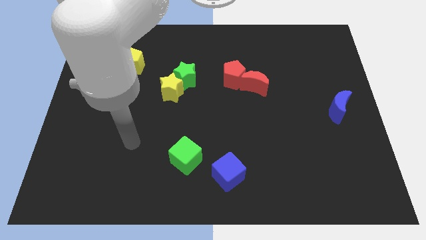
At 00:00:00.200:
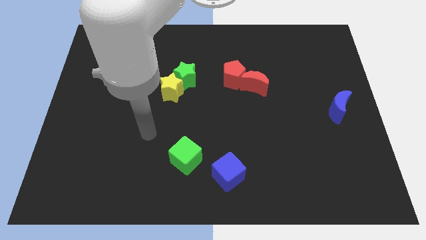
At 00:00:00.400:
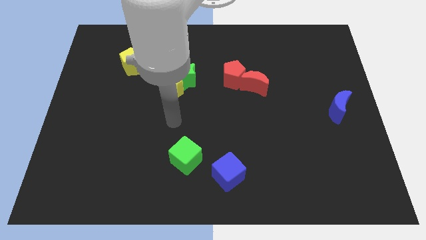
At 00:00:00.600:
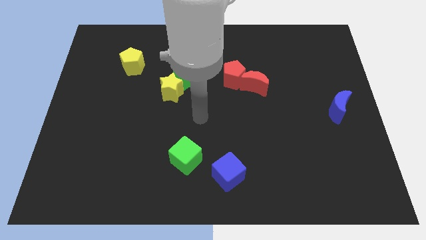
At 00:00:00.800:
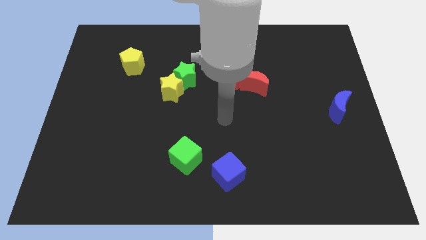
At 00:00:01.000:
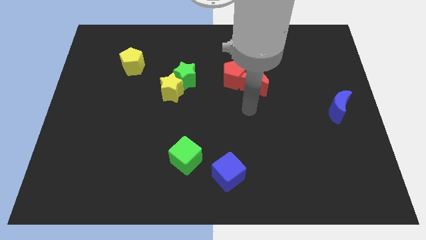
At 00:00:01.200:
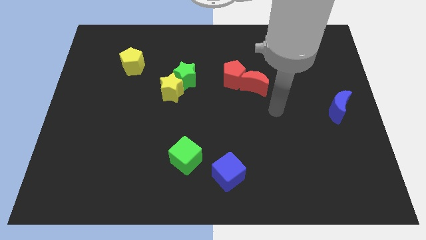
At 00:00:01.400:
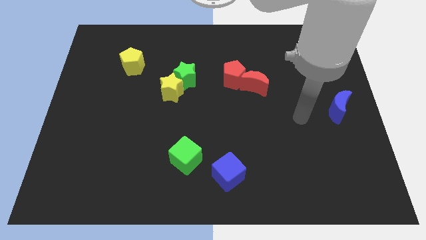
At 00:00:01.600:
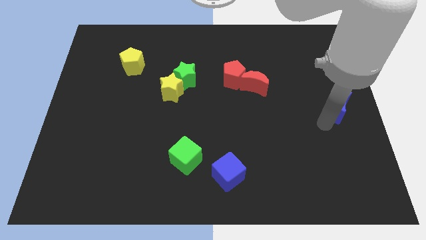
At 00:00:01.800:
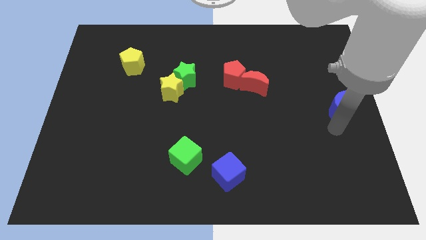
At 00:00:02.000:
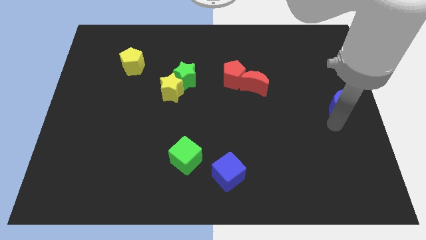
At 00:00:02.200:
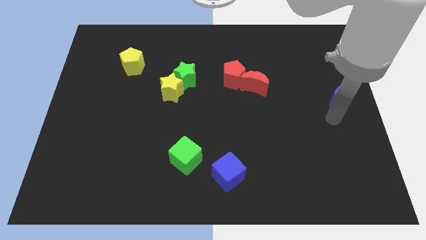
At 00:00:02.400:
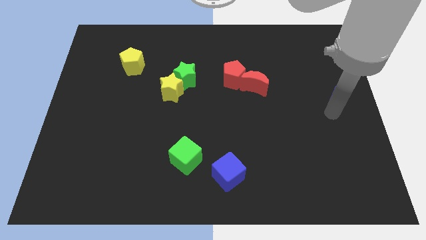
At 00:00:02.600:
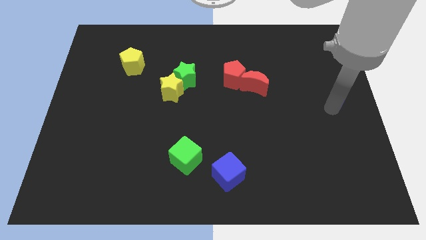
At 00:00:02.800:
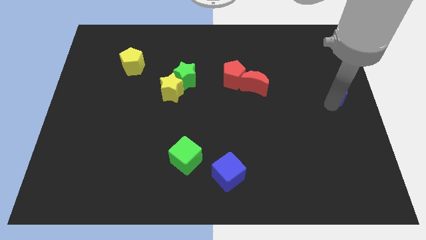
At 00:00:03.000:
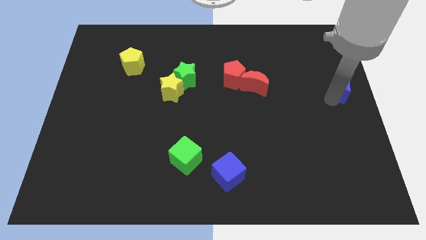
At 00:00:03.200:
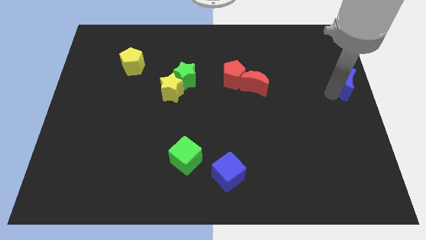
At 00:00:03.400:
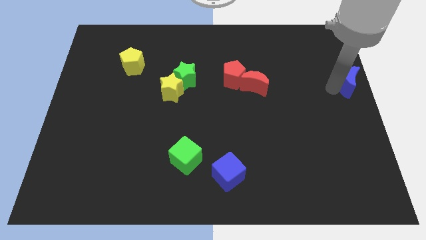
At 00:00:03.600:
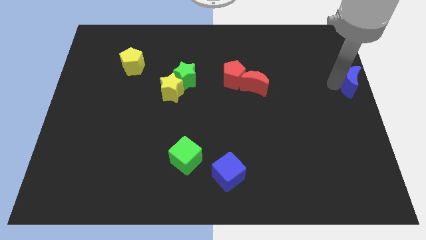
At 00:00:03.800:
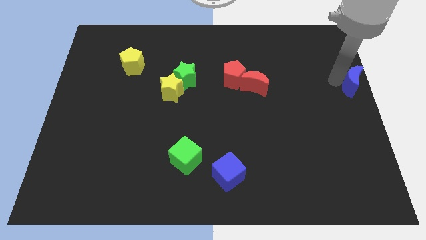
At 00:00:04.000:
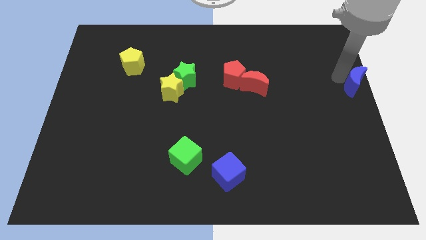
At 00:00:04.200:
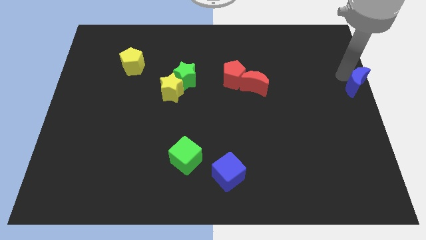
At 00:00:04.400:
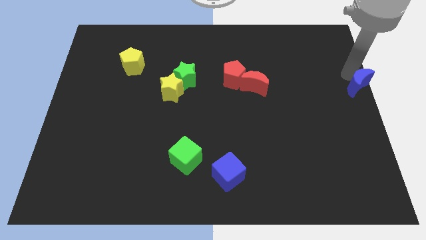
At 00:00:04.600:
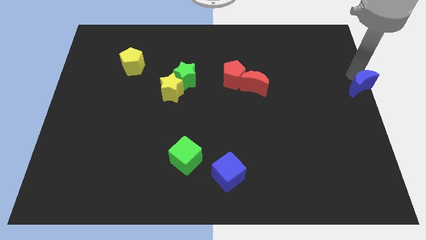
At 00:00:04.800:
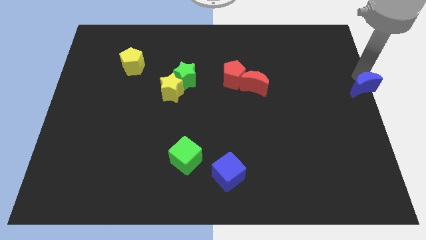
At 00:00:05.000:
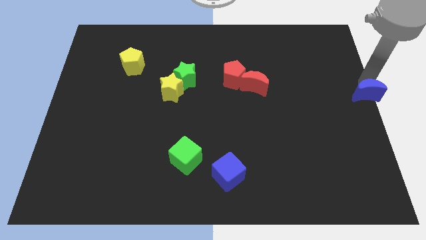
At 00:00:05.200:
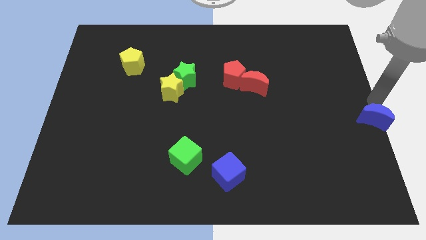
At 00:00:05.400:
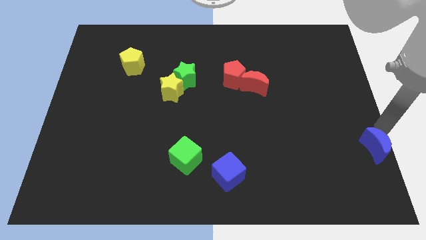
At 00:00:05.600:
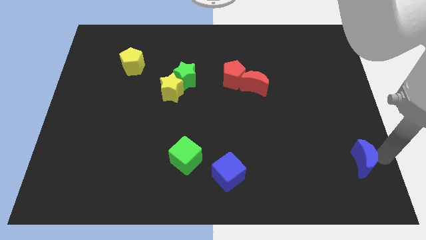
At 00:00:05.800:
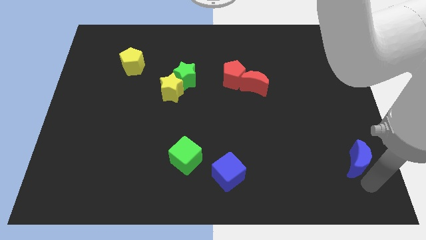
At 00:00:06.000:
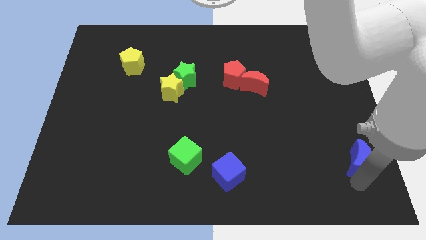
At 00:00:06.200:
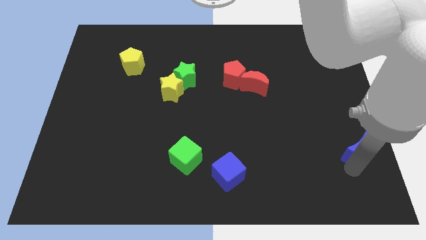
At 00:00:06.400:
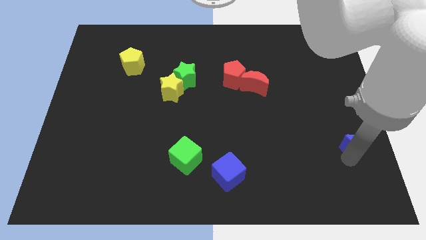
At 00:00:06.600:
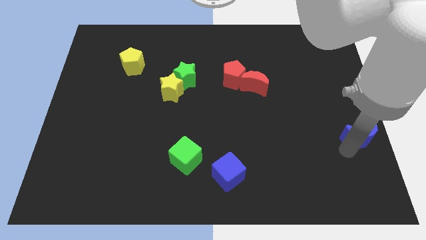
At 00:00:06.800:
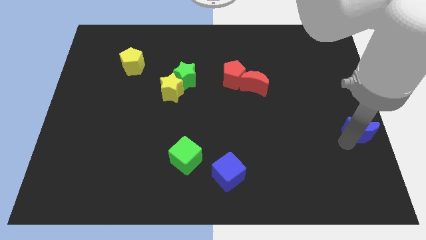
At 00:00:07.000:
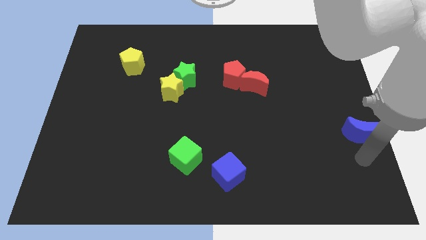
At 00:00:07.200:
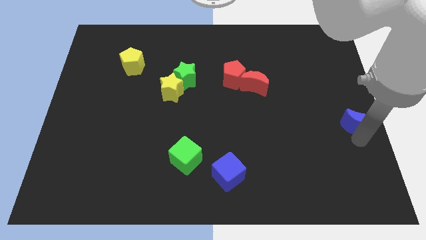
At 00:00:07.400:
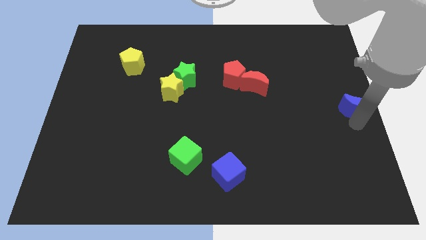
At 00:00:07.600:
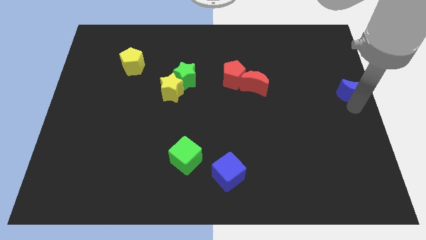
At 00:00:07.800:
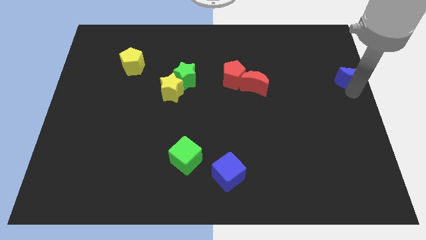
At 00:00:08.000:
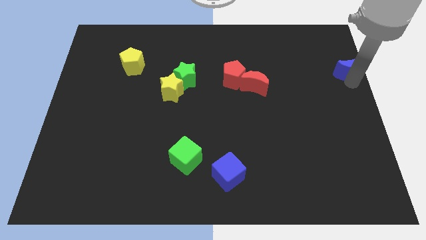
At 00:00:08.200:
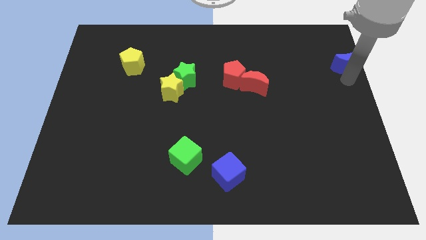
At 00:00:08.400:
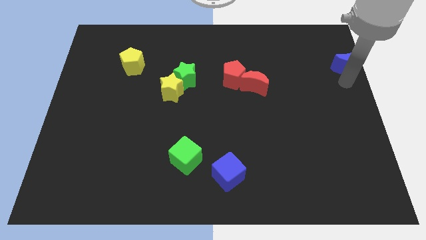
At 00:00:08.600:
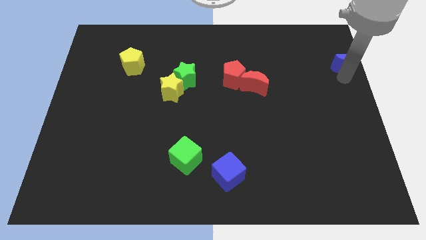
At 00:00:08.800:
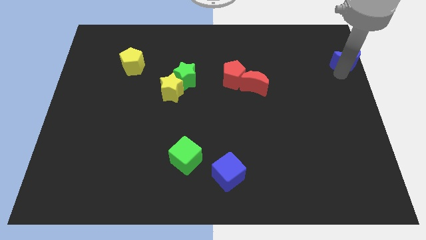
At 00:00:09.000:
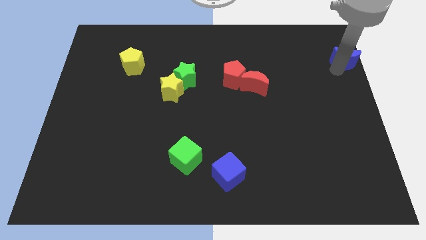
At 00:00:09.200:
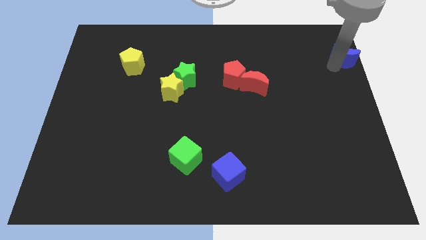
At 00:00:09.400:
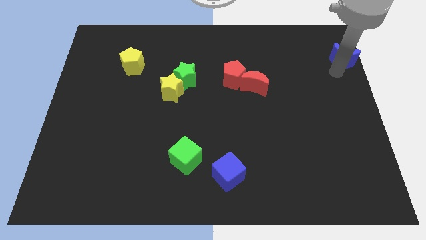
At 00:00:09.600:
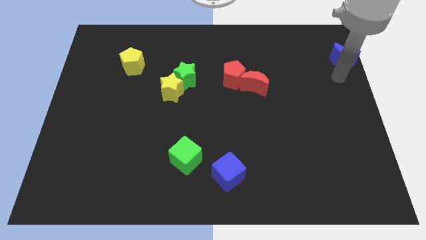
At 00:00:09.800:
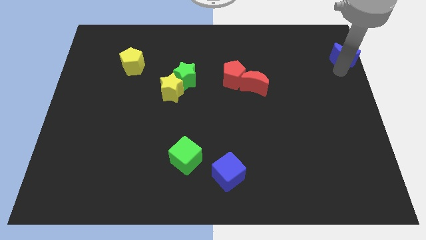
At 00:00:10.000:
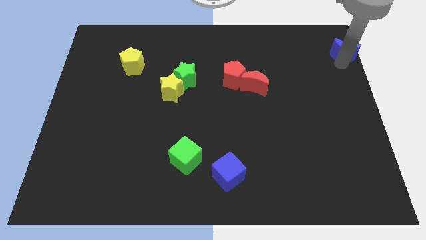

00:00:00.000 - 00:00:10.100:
push the blue moon to the top right of the board

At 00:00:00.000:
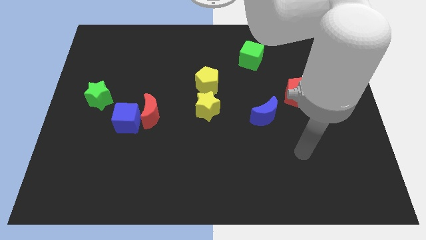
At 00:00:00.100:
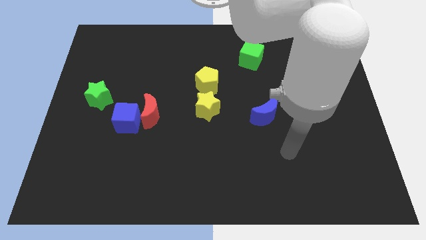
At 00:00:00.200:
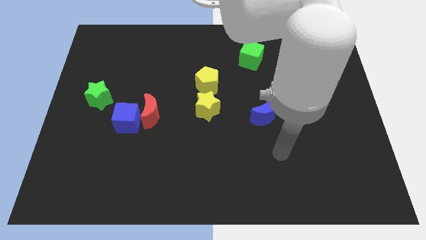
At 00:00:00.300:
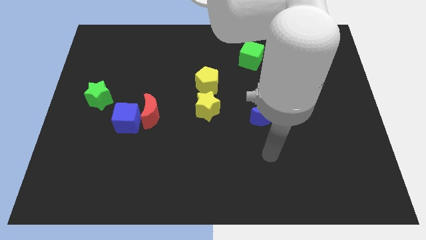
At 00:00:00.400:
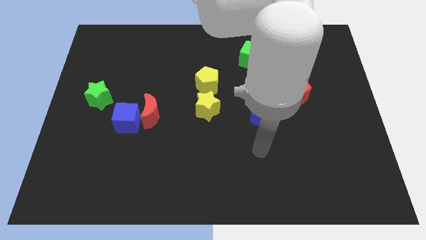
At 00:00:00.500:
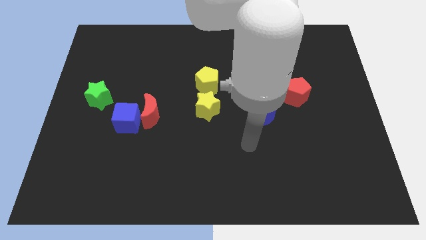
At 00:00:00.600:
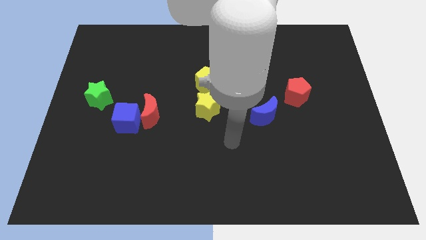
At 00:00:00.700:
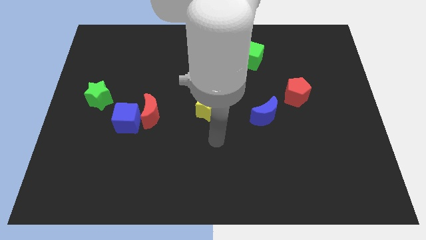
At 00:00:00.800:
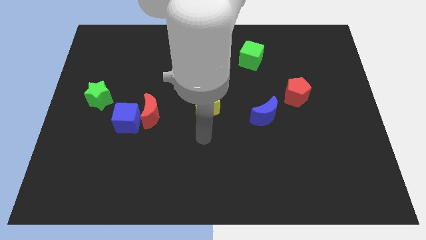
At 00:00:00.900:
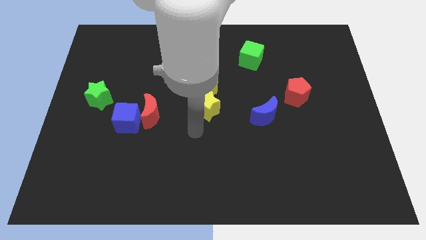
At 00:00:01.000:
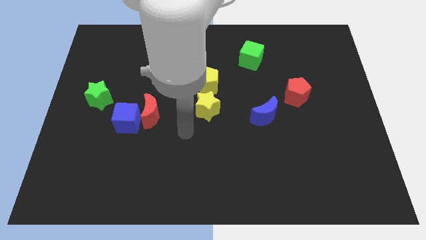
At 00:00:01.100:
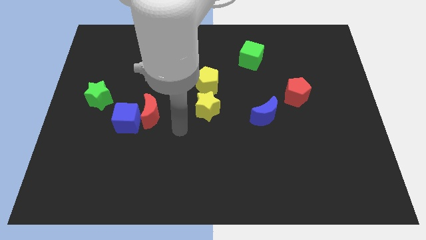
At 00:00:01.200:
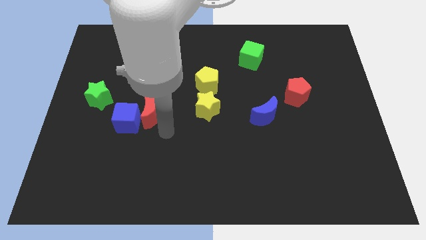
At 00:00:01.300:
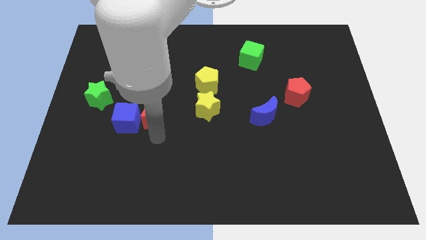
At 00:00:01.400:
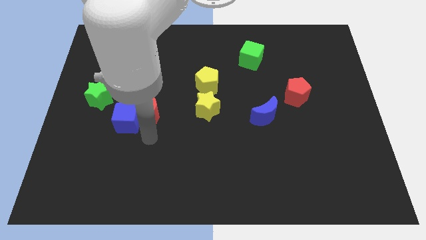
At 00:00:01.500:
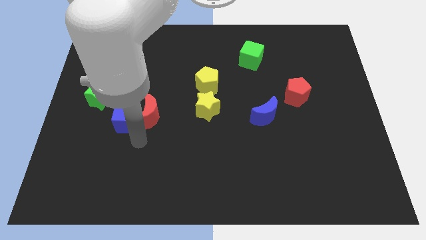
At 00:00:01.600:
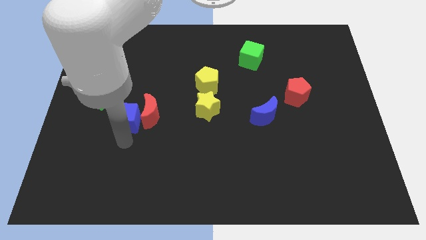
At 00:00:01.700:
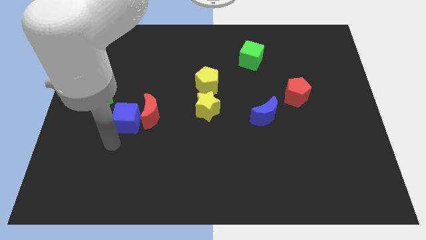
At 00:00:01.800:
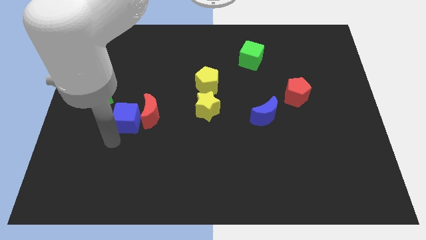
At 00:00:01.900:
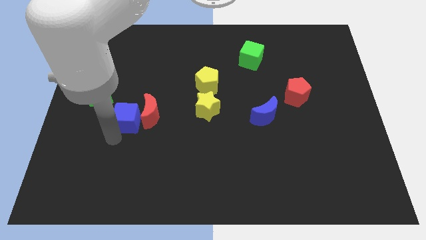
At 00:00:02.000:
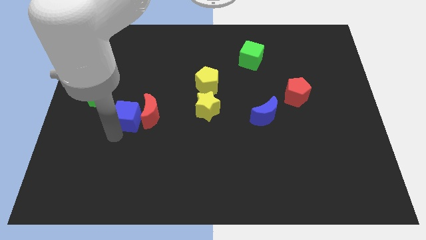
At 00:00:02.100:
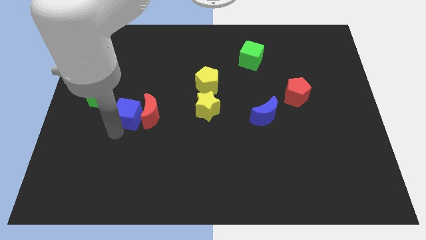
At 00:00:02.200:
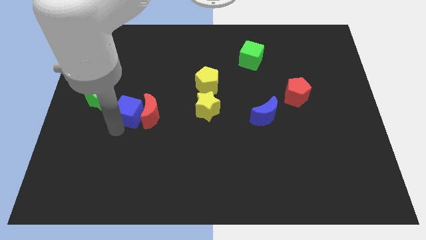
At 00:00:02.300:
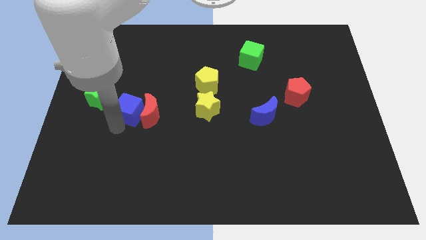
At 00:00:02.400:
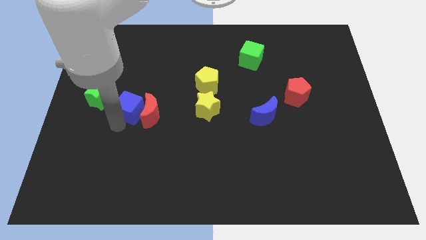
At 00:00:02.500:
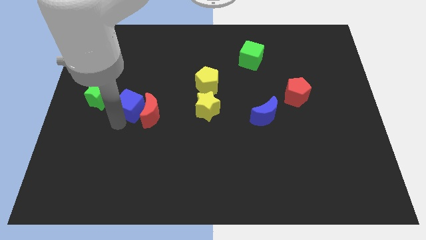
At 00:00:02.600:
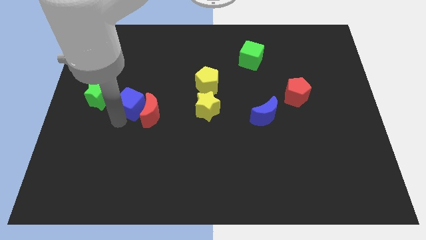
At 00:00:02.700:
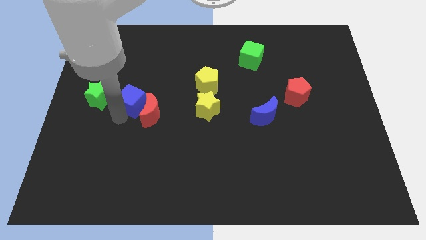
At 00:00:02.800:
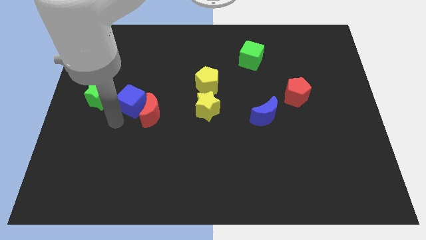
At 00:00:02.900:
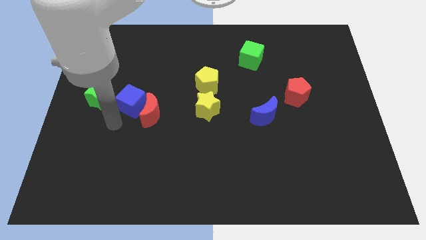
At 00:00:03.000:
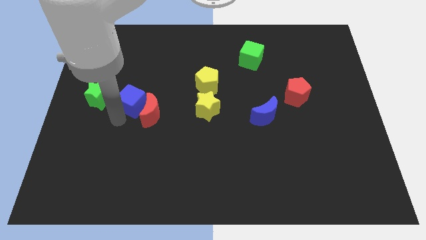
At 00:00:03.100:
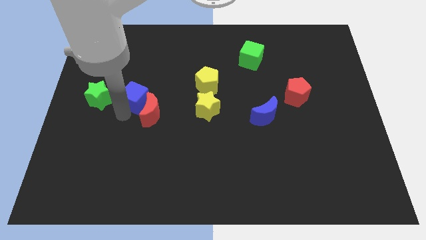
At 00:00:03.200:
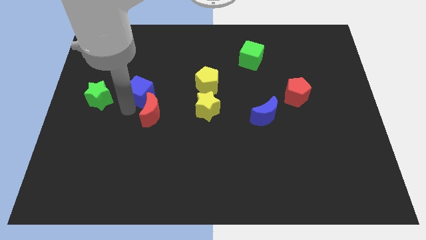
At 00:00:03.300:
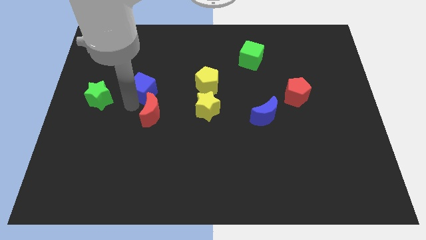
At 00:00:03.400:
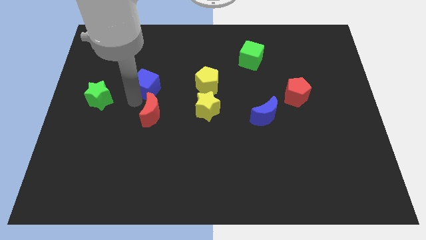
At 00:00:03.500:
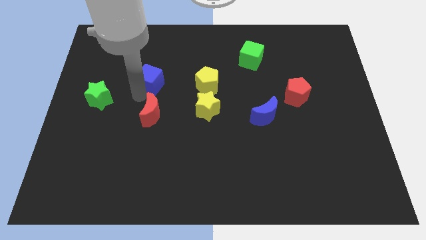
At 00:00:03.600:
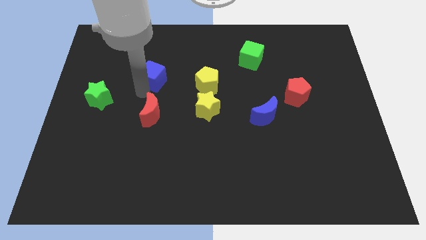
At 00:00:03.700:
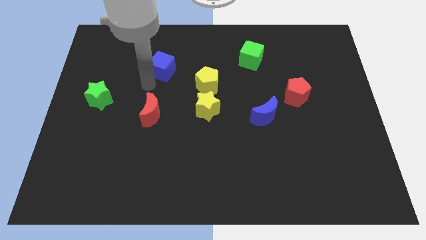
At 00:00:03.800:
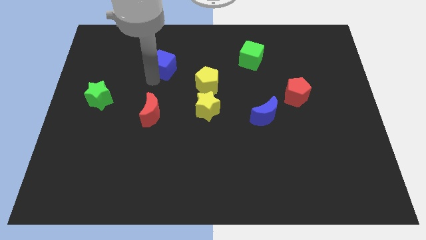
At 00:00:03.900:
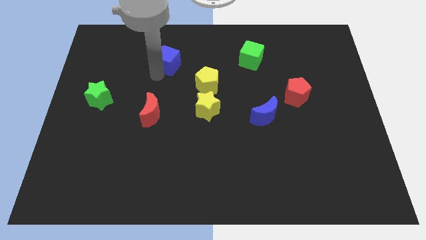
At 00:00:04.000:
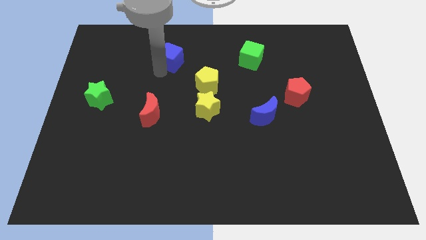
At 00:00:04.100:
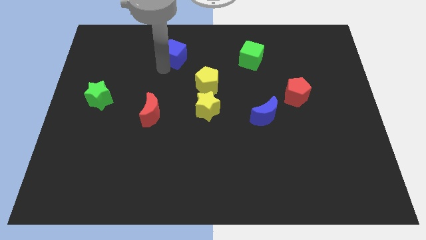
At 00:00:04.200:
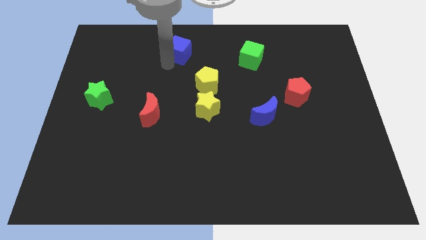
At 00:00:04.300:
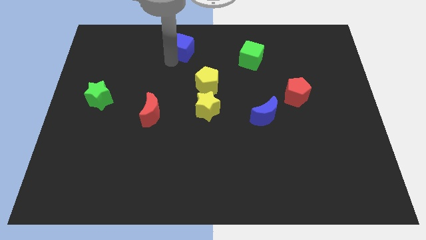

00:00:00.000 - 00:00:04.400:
put the blue cube to the top side
